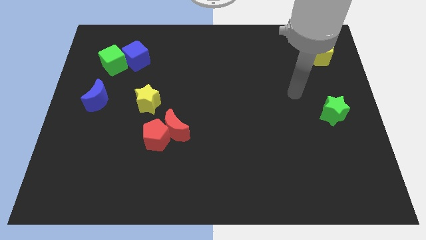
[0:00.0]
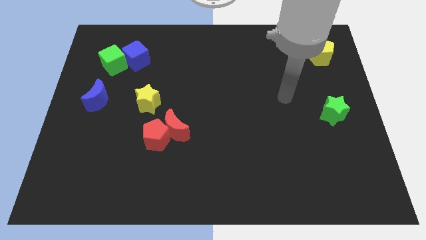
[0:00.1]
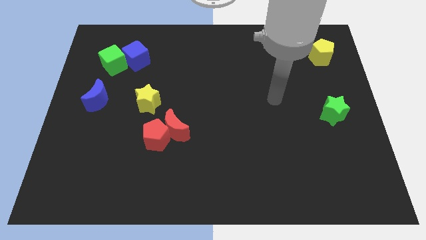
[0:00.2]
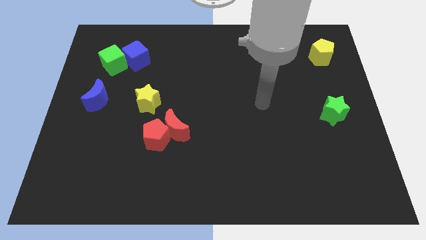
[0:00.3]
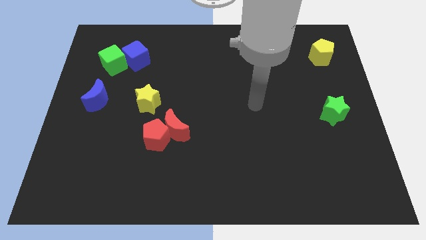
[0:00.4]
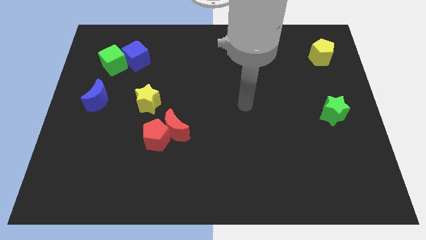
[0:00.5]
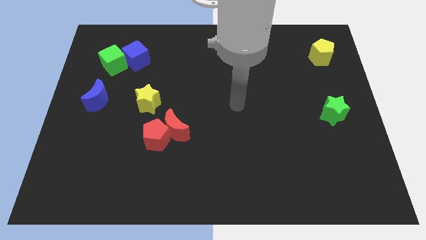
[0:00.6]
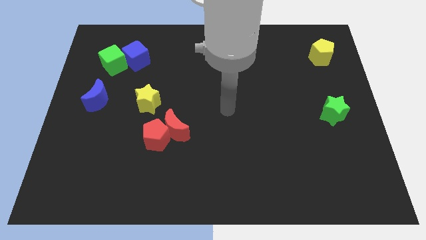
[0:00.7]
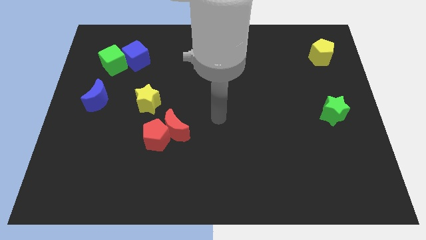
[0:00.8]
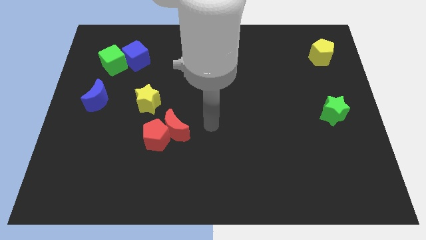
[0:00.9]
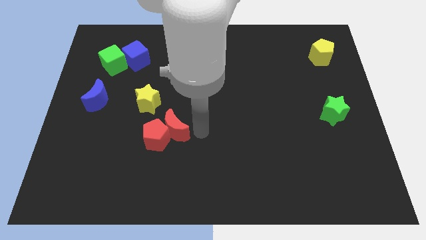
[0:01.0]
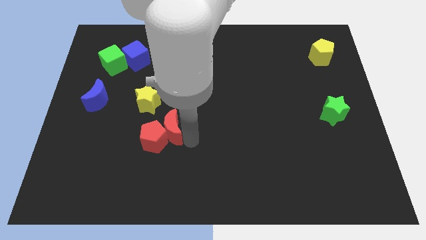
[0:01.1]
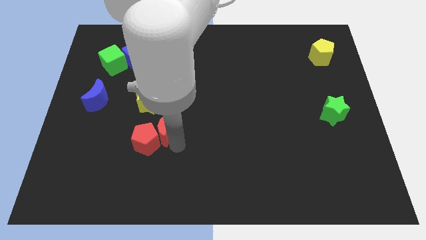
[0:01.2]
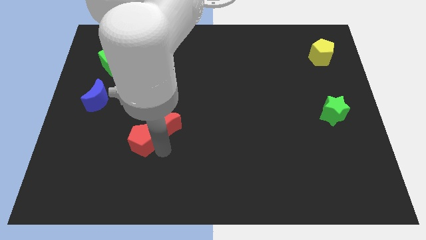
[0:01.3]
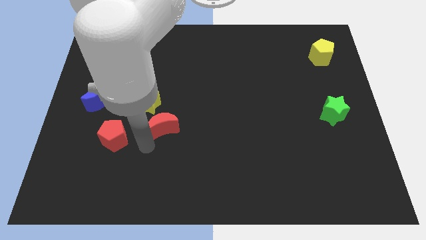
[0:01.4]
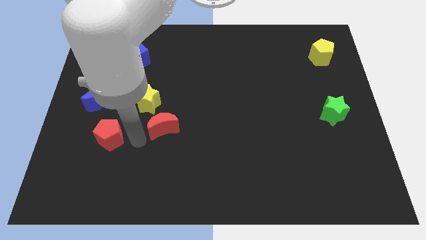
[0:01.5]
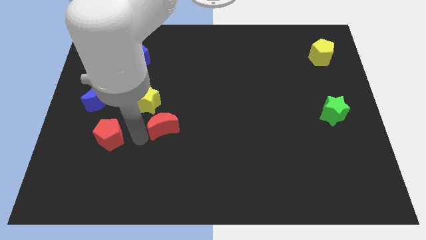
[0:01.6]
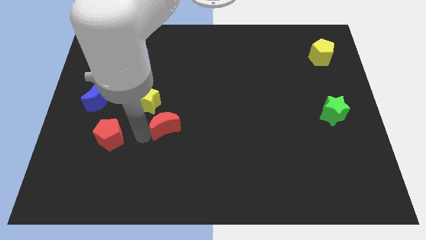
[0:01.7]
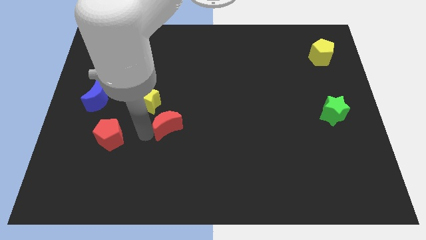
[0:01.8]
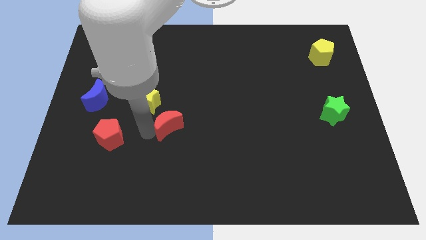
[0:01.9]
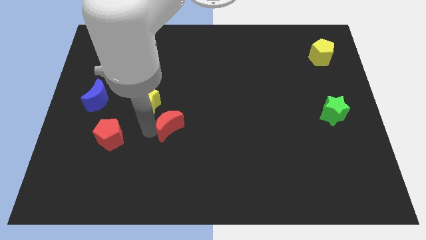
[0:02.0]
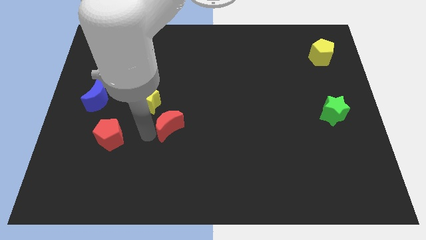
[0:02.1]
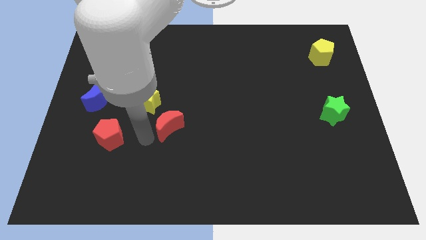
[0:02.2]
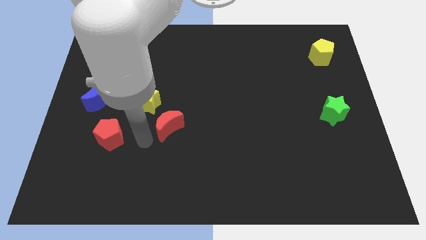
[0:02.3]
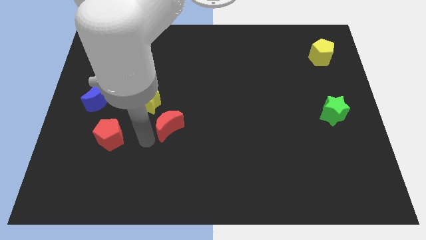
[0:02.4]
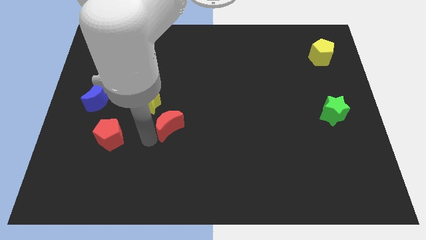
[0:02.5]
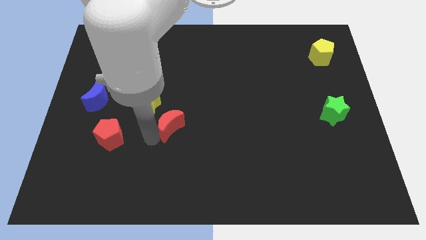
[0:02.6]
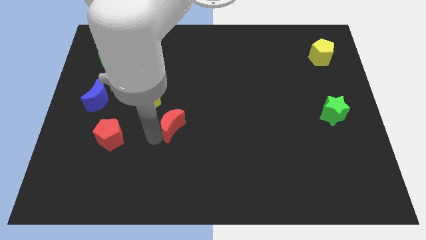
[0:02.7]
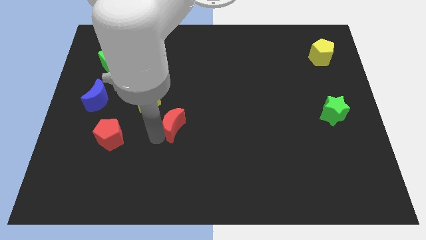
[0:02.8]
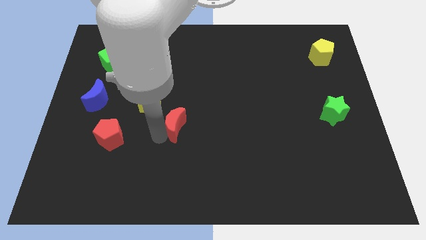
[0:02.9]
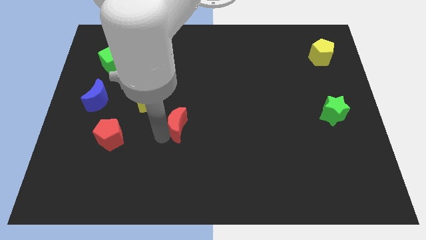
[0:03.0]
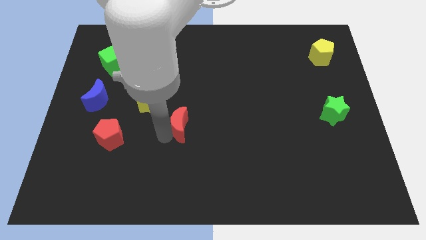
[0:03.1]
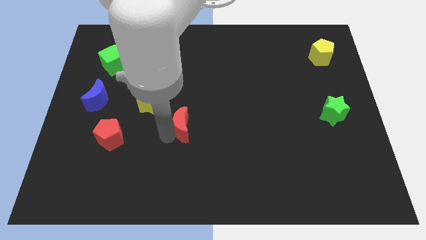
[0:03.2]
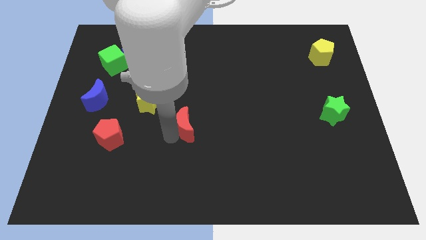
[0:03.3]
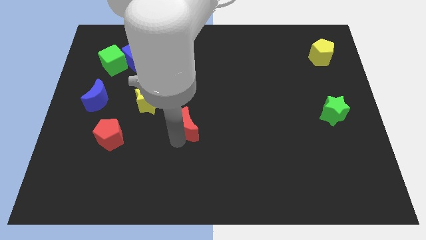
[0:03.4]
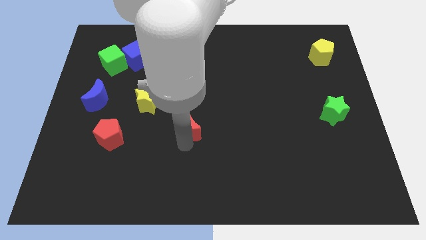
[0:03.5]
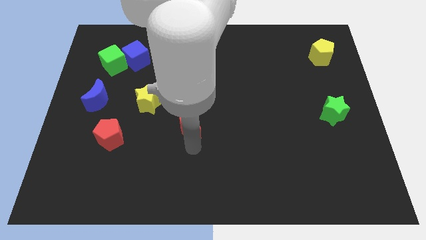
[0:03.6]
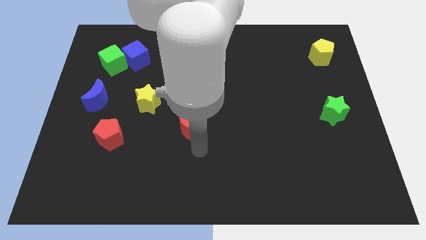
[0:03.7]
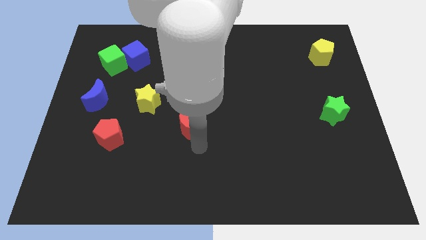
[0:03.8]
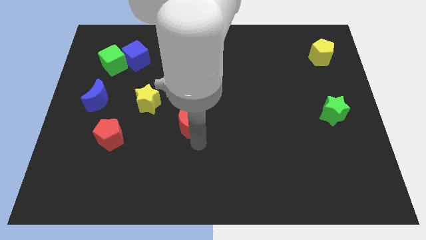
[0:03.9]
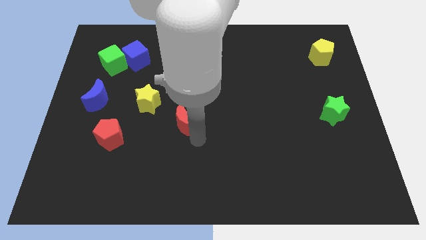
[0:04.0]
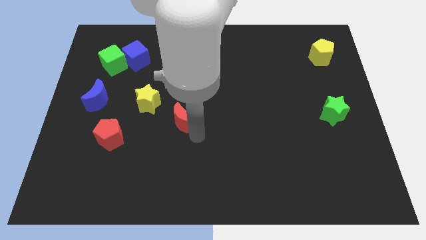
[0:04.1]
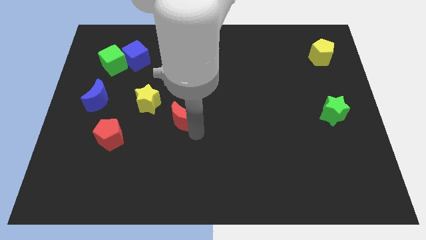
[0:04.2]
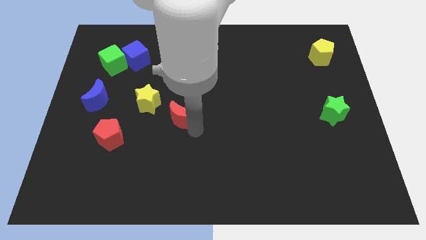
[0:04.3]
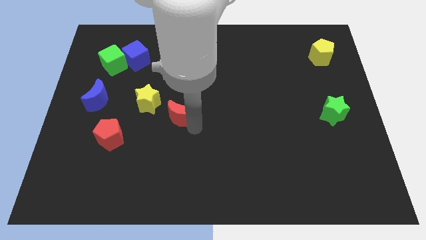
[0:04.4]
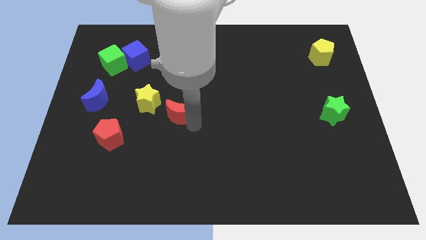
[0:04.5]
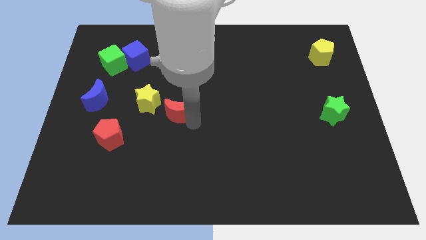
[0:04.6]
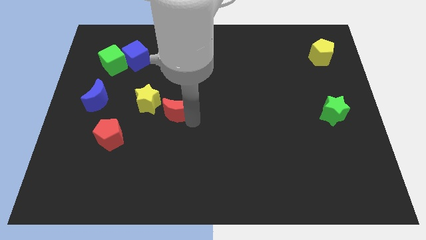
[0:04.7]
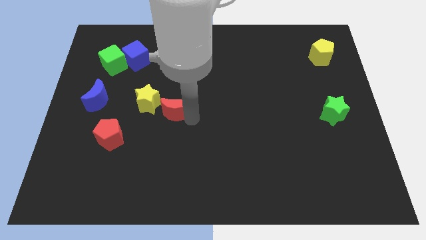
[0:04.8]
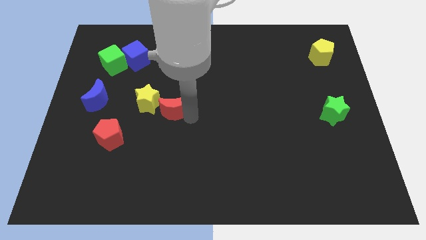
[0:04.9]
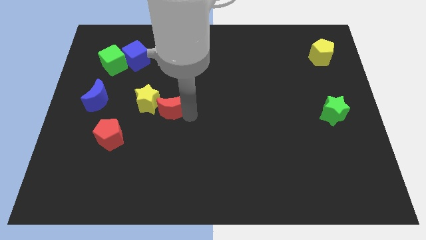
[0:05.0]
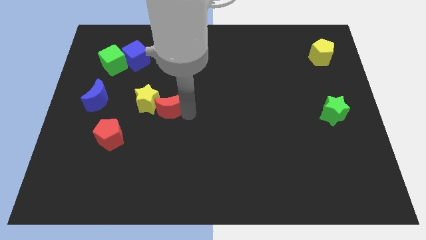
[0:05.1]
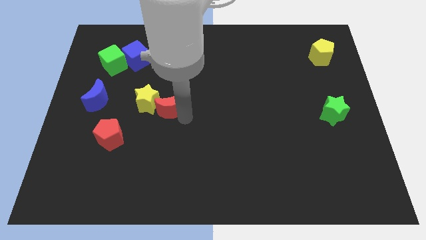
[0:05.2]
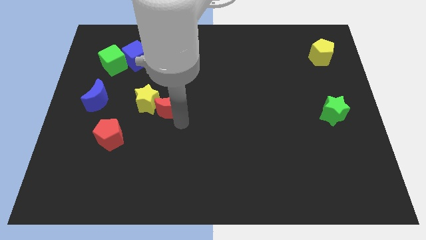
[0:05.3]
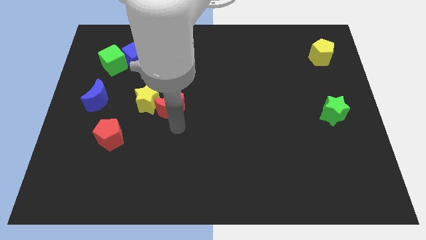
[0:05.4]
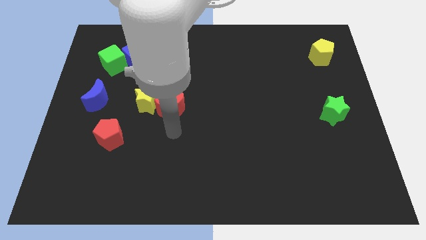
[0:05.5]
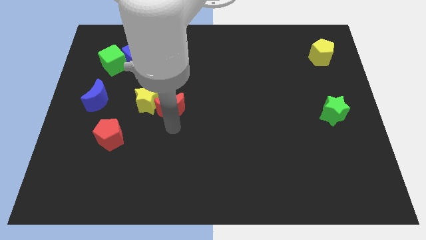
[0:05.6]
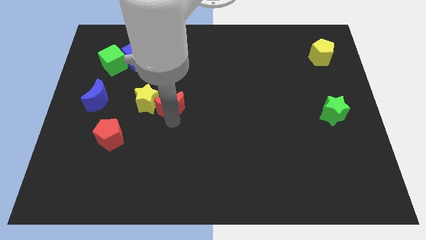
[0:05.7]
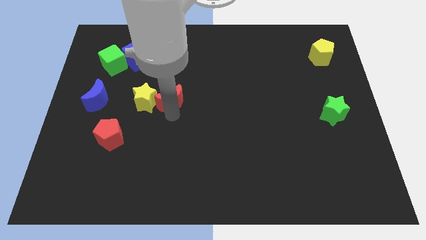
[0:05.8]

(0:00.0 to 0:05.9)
move the red moon diagonally up and to the right of the yellow star

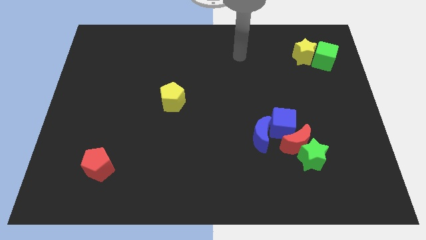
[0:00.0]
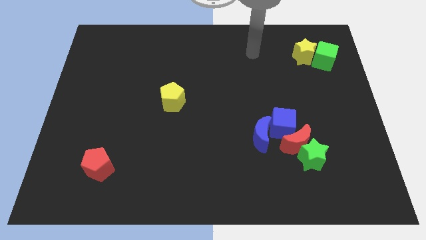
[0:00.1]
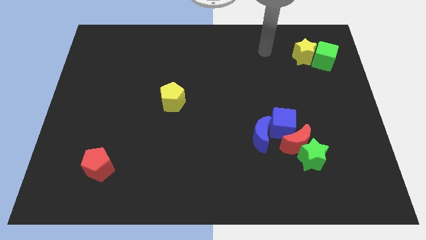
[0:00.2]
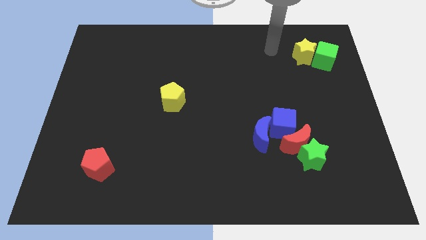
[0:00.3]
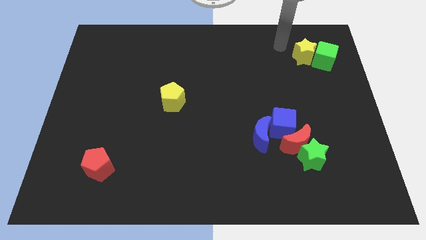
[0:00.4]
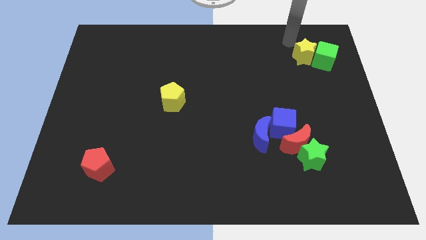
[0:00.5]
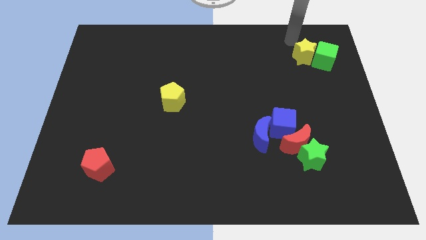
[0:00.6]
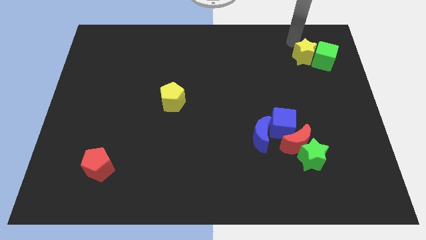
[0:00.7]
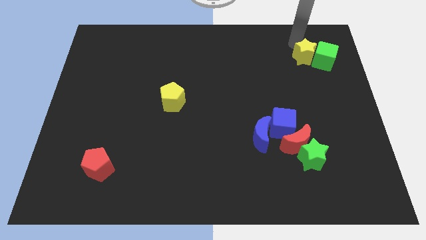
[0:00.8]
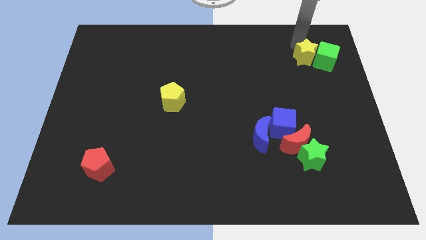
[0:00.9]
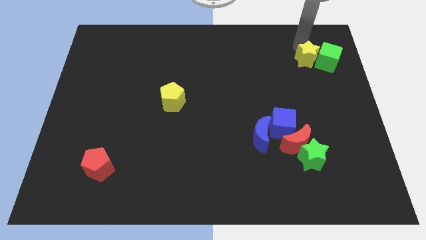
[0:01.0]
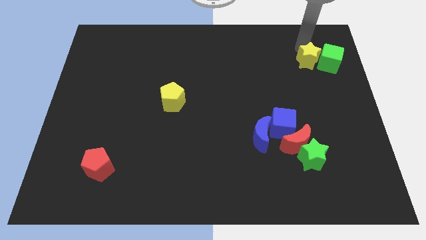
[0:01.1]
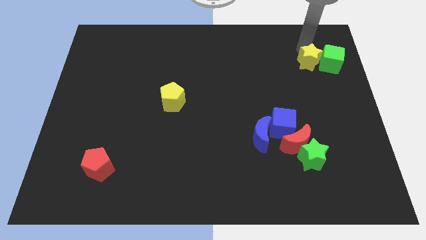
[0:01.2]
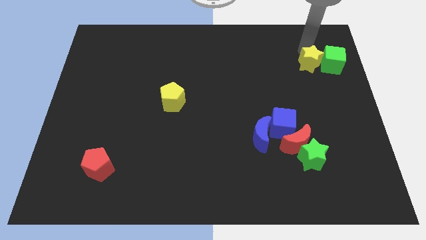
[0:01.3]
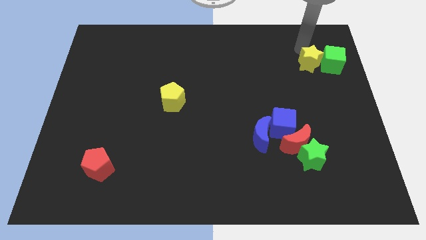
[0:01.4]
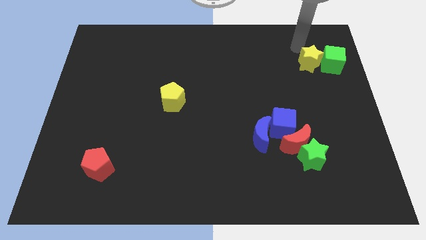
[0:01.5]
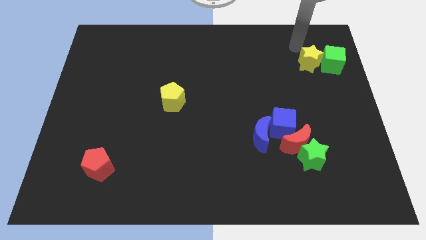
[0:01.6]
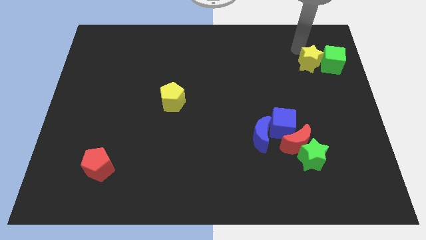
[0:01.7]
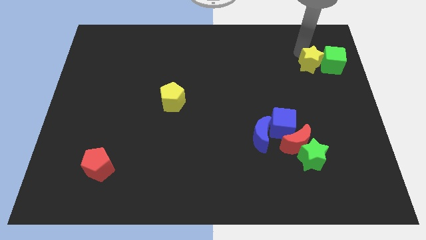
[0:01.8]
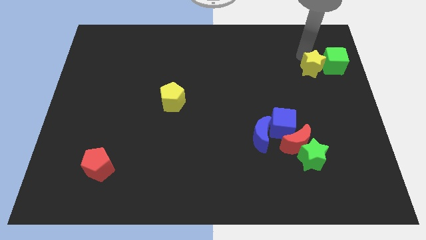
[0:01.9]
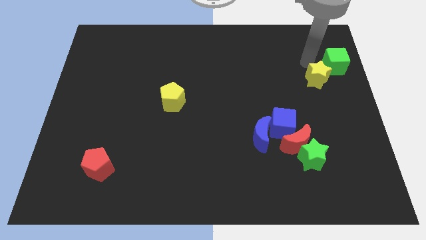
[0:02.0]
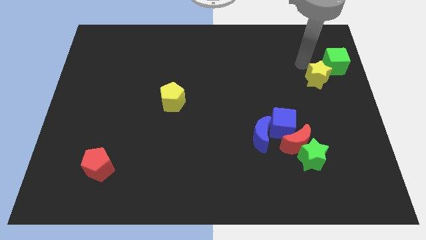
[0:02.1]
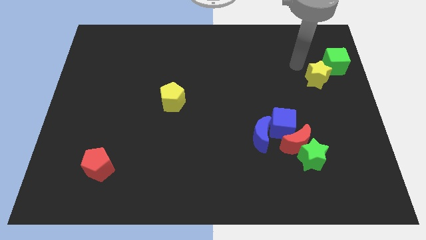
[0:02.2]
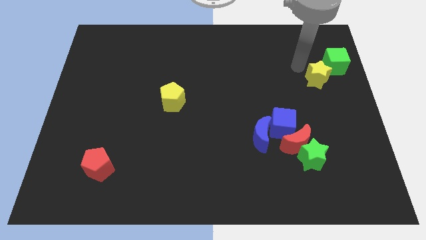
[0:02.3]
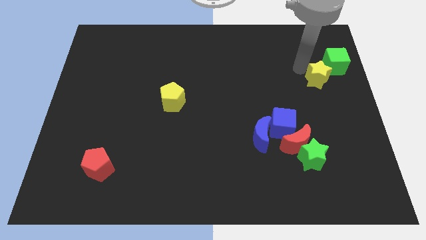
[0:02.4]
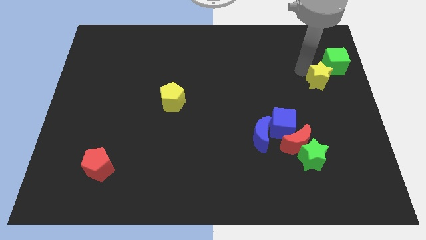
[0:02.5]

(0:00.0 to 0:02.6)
slide the yellow star below the green cube
